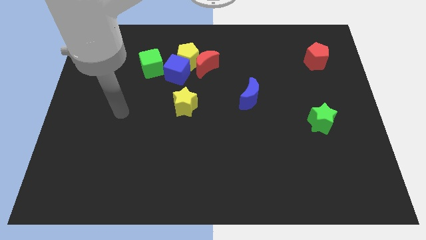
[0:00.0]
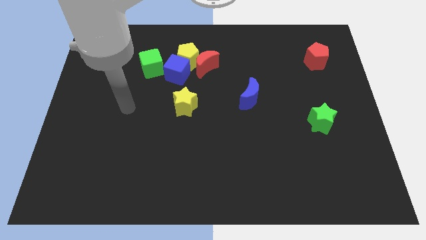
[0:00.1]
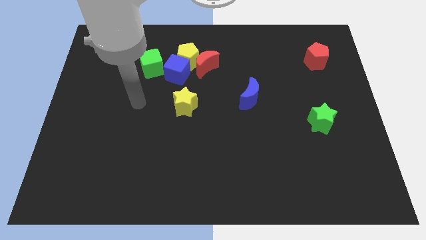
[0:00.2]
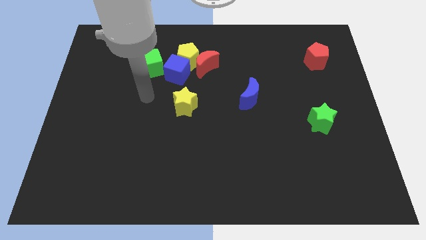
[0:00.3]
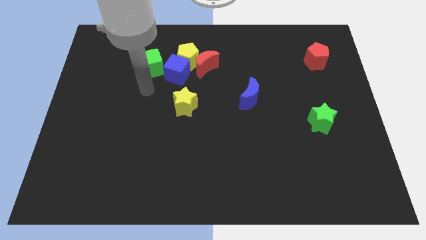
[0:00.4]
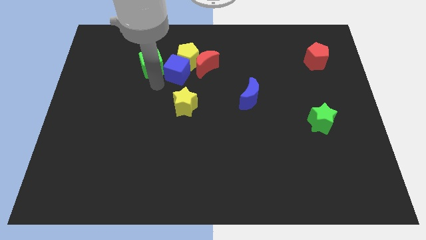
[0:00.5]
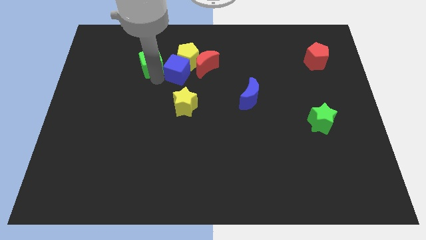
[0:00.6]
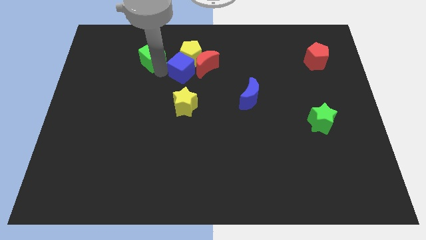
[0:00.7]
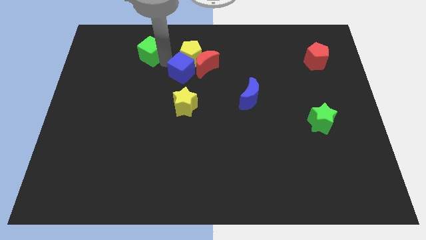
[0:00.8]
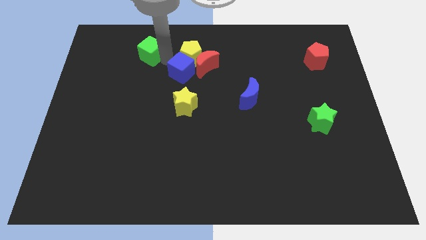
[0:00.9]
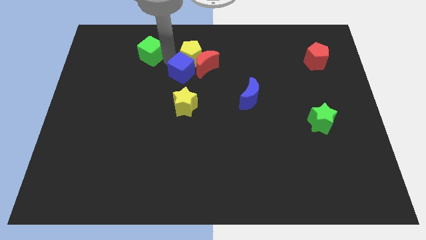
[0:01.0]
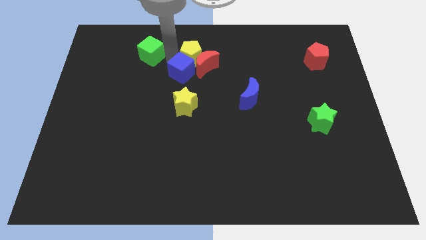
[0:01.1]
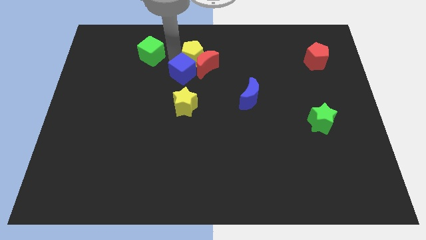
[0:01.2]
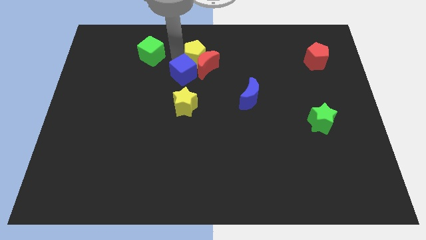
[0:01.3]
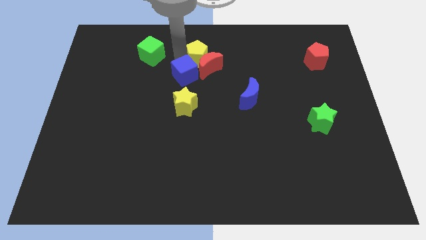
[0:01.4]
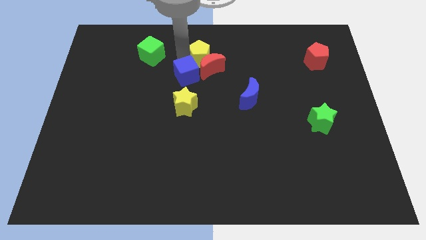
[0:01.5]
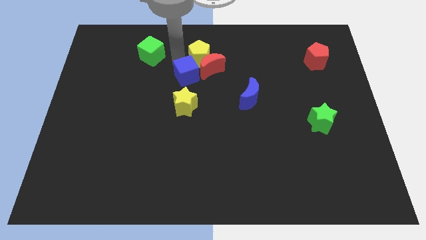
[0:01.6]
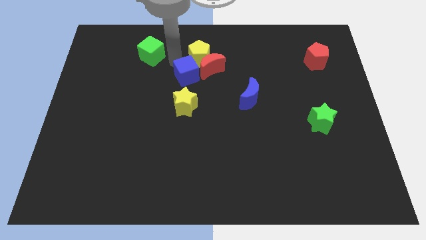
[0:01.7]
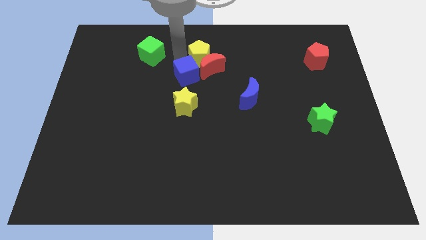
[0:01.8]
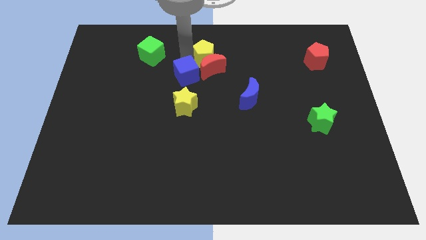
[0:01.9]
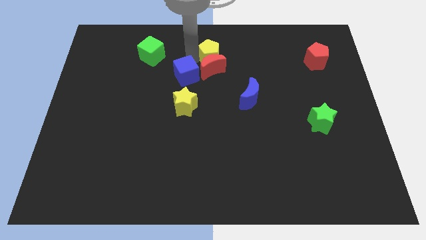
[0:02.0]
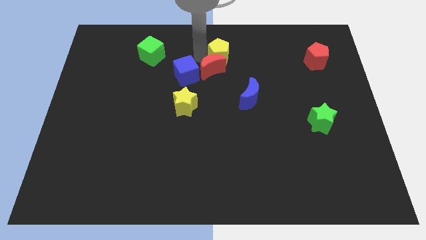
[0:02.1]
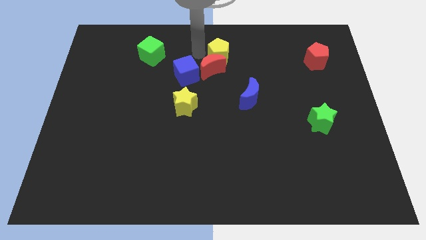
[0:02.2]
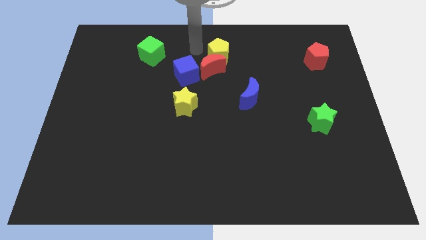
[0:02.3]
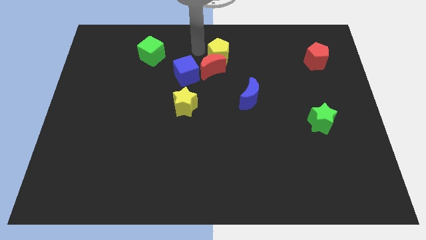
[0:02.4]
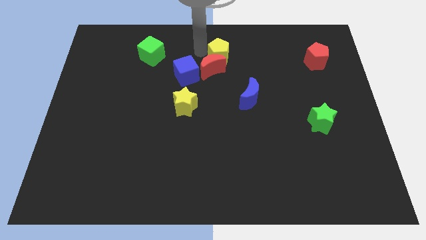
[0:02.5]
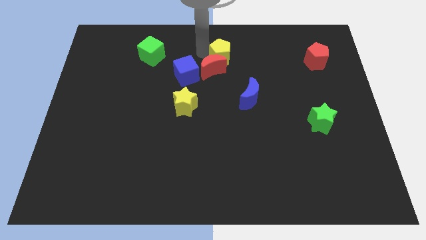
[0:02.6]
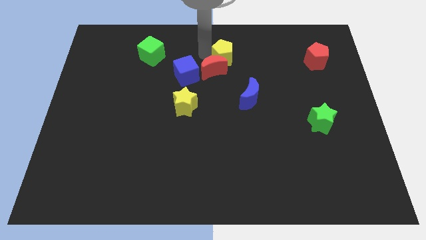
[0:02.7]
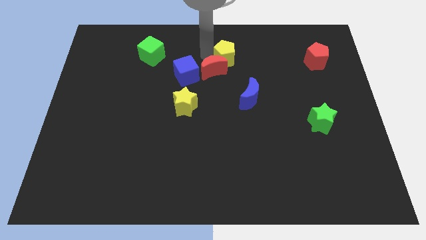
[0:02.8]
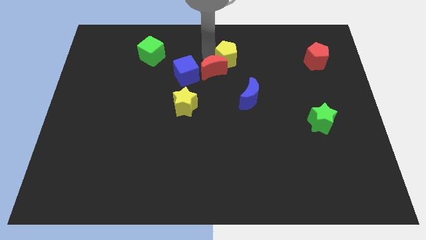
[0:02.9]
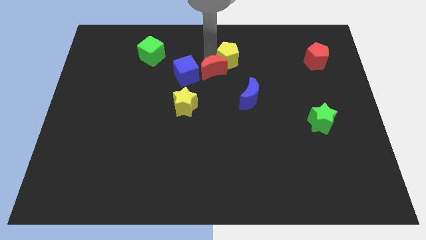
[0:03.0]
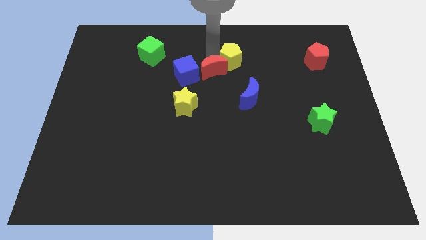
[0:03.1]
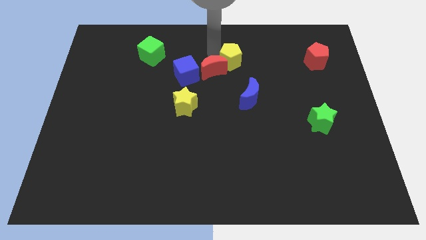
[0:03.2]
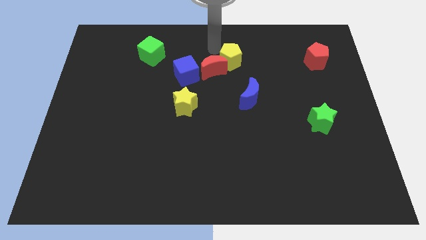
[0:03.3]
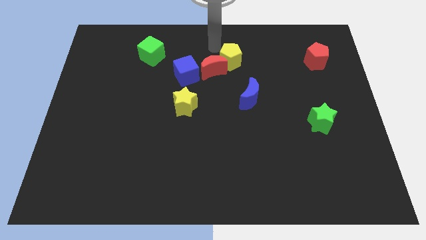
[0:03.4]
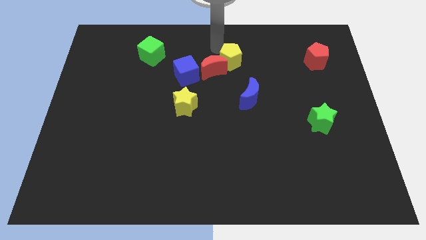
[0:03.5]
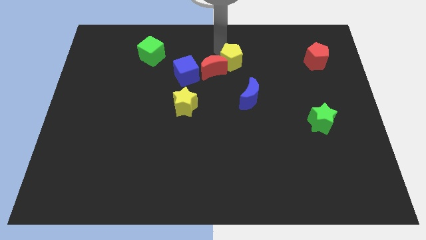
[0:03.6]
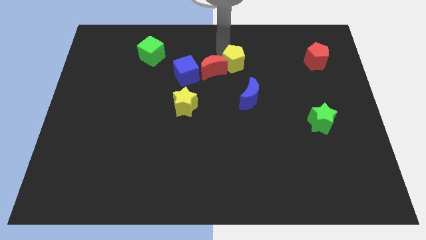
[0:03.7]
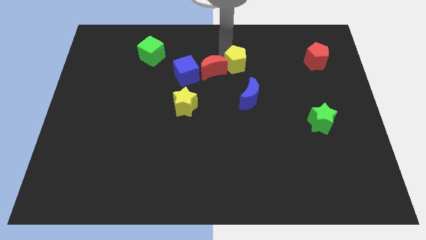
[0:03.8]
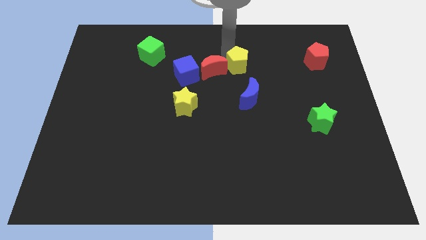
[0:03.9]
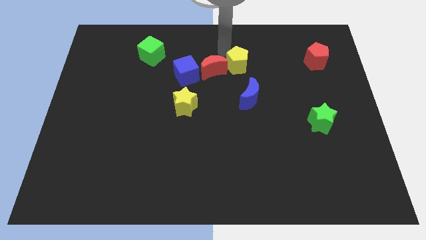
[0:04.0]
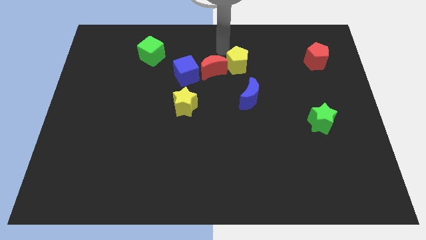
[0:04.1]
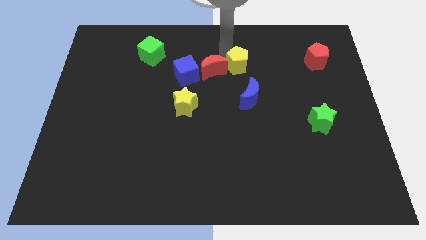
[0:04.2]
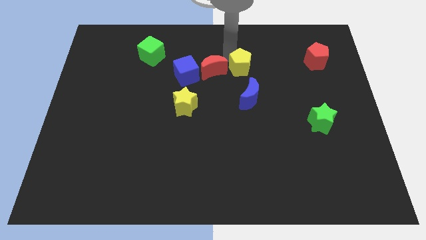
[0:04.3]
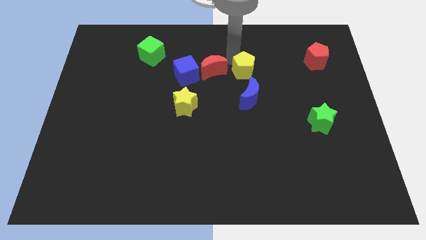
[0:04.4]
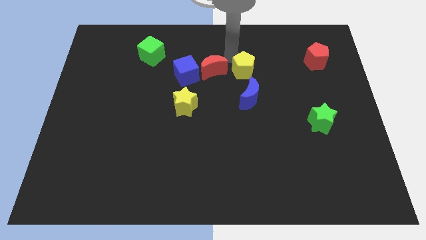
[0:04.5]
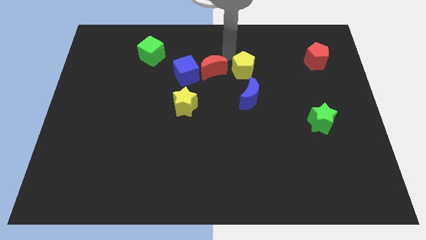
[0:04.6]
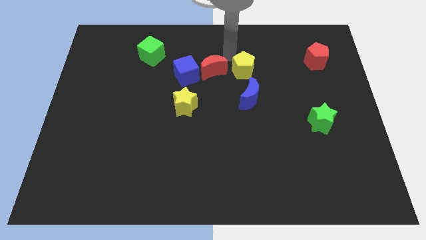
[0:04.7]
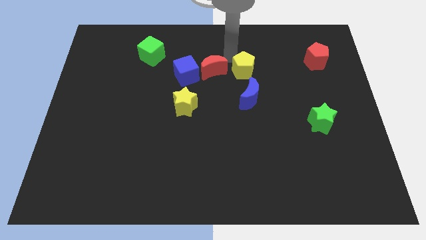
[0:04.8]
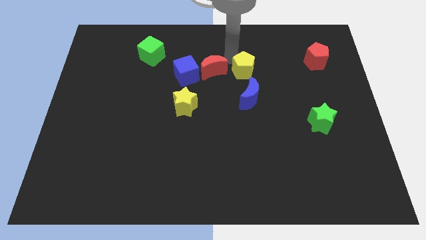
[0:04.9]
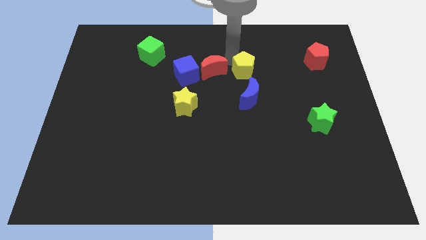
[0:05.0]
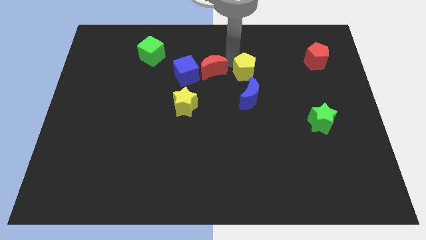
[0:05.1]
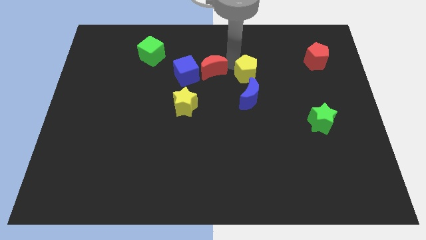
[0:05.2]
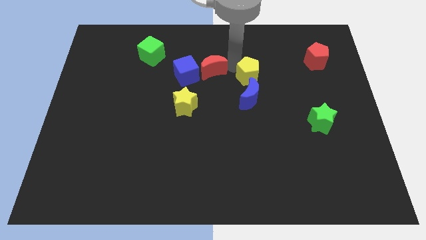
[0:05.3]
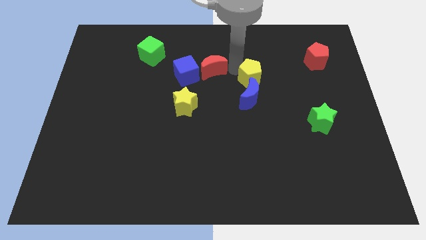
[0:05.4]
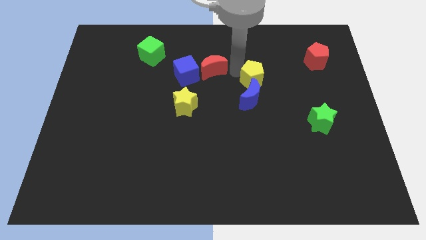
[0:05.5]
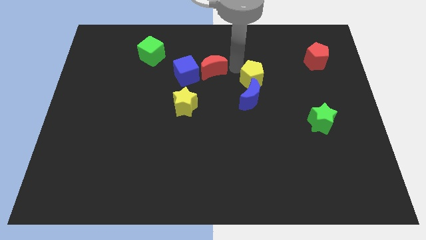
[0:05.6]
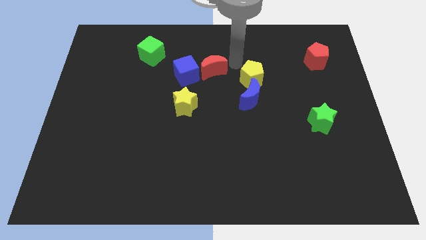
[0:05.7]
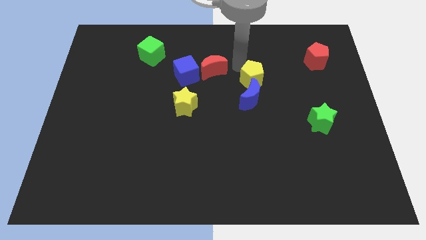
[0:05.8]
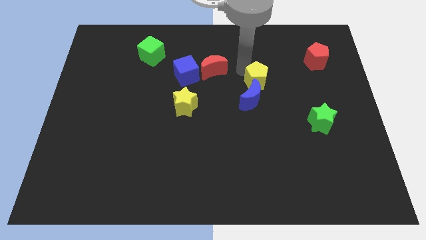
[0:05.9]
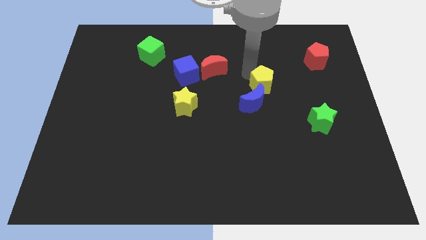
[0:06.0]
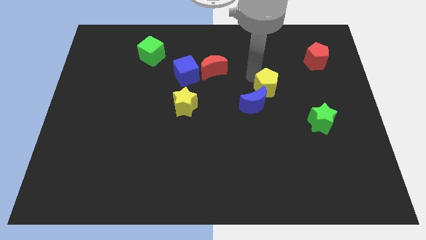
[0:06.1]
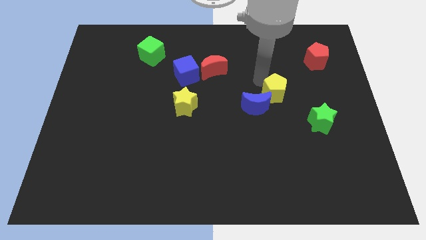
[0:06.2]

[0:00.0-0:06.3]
slide the yellow pentagon downwards and to the right diagonally

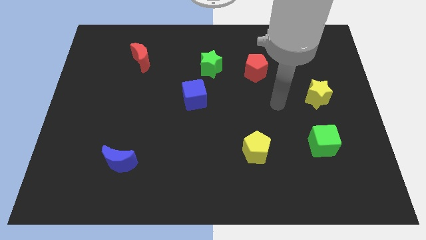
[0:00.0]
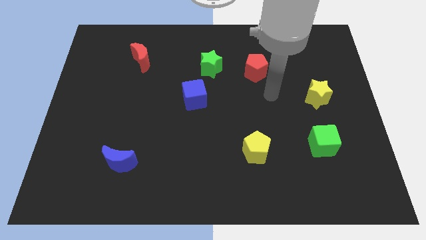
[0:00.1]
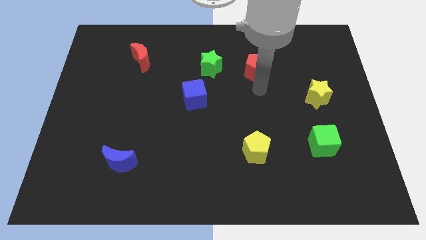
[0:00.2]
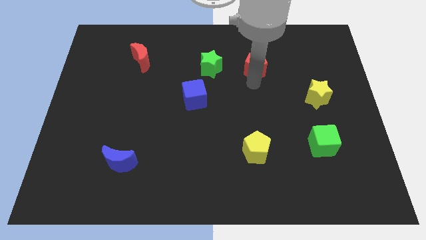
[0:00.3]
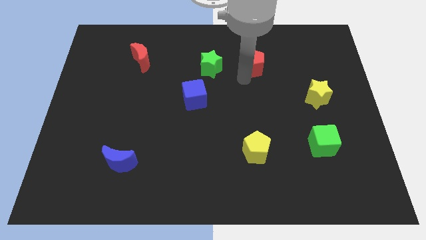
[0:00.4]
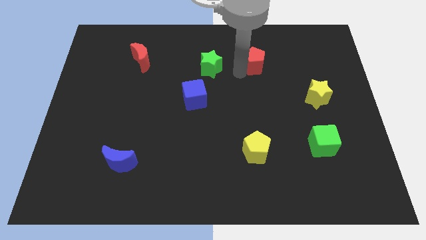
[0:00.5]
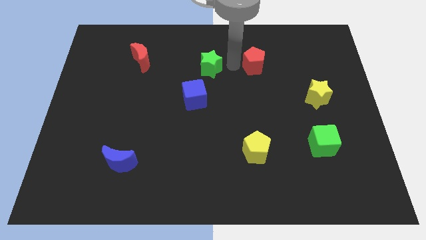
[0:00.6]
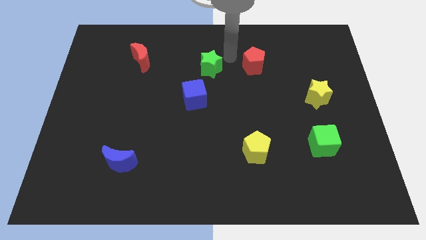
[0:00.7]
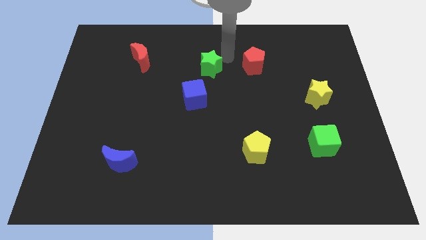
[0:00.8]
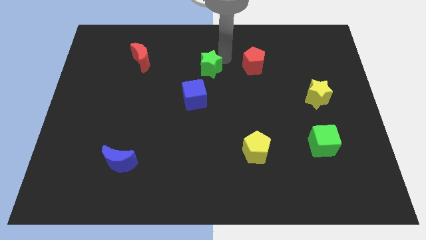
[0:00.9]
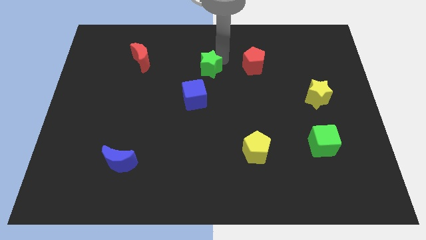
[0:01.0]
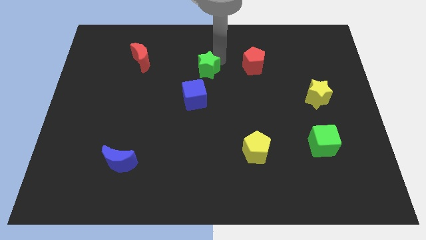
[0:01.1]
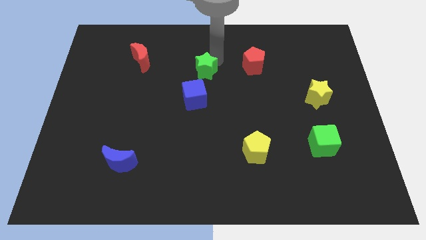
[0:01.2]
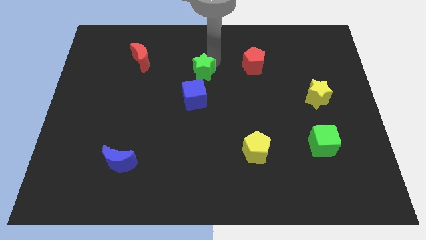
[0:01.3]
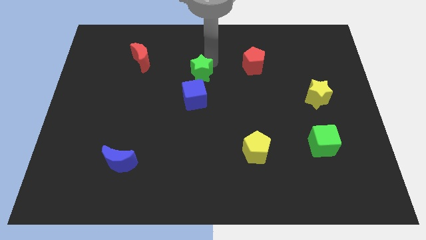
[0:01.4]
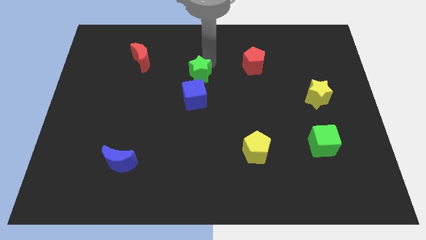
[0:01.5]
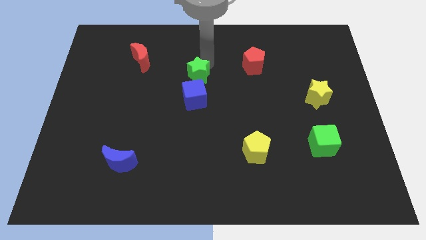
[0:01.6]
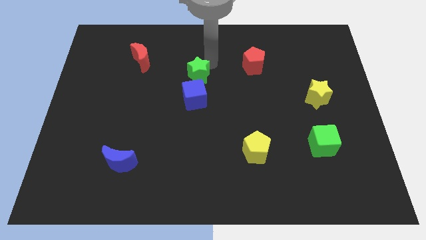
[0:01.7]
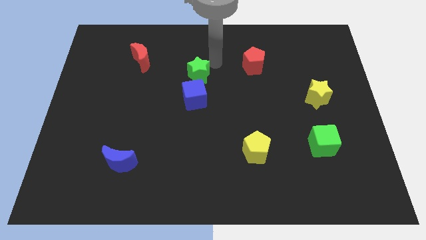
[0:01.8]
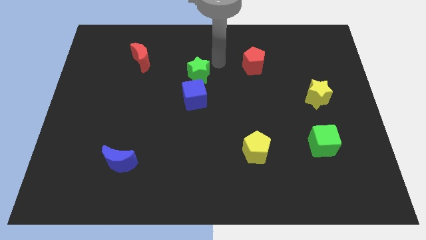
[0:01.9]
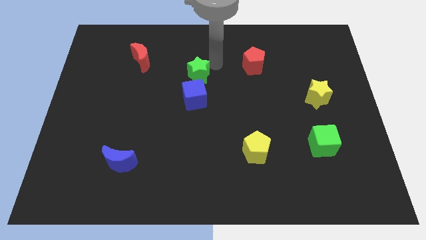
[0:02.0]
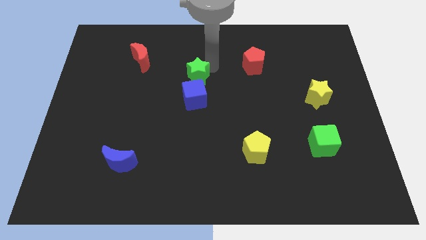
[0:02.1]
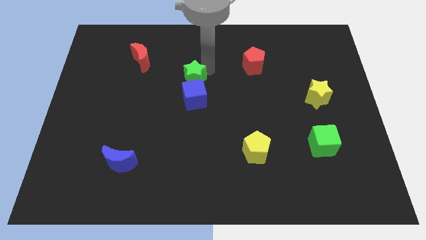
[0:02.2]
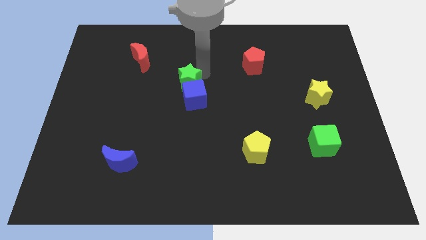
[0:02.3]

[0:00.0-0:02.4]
move the green star somewhat downwards and left
